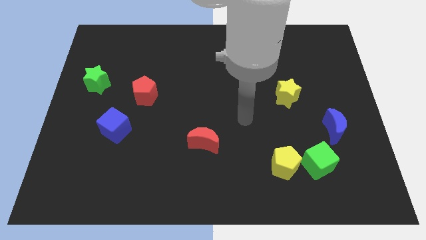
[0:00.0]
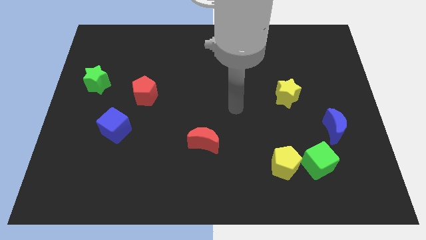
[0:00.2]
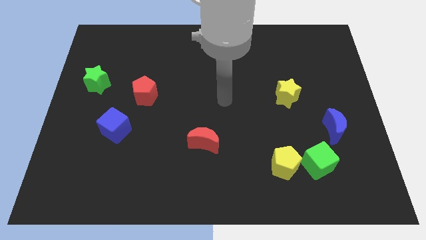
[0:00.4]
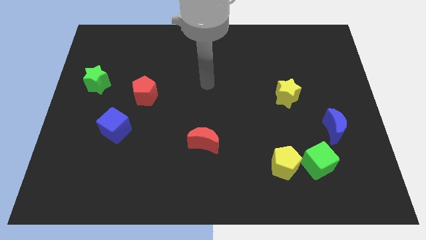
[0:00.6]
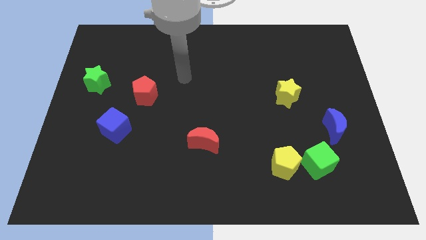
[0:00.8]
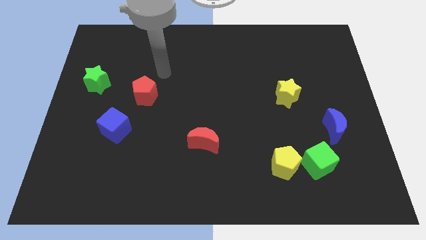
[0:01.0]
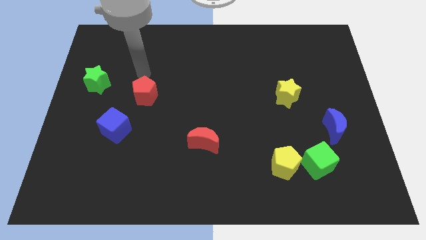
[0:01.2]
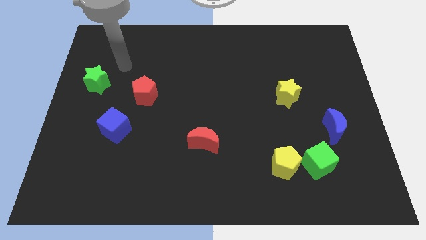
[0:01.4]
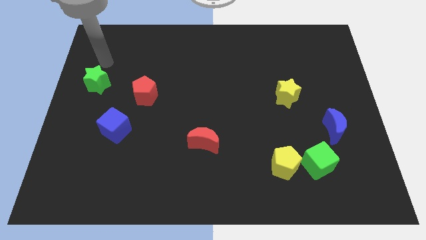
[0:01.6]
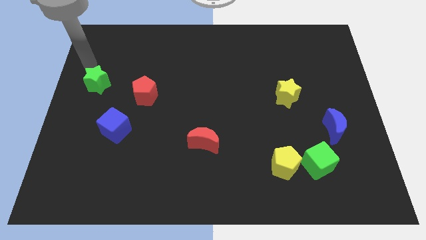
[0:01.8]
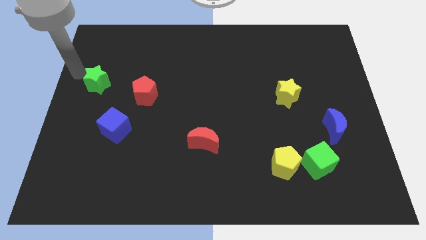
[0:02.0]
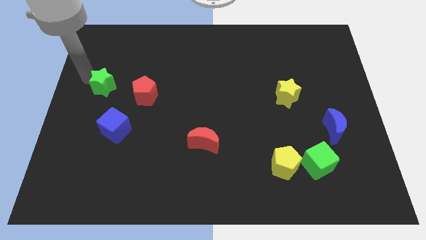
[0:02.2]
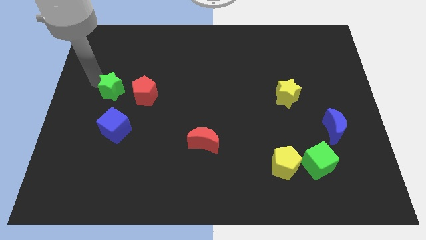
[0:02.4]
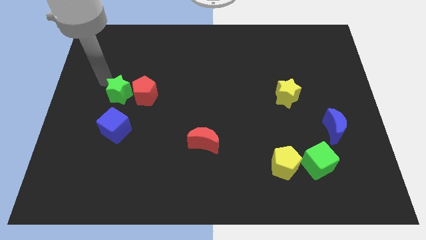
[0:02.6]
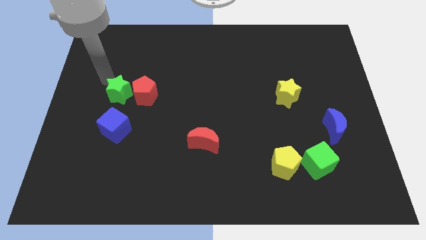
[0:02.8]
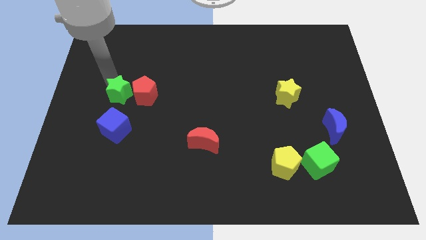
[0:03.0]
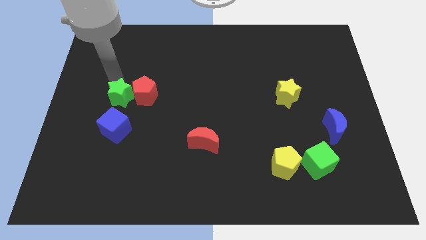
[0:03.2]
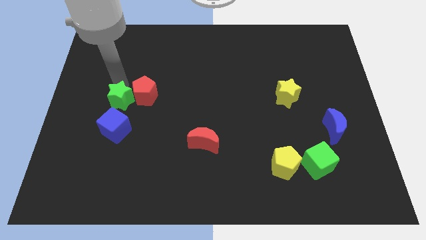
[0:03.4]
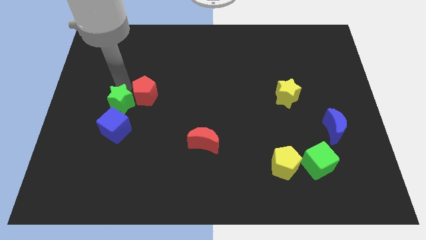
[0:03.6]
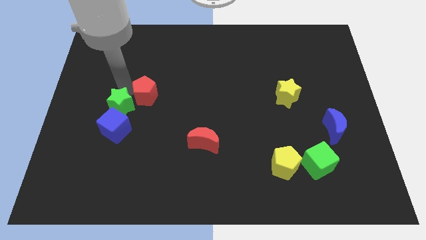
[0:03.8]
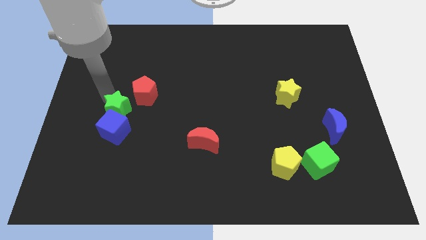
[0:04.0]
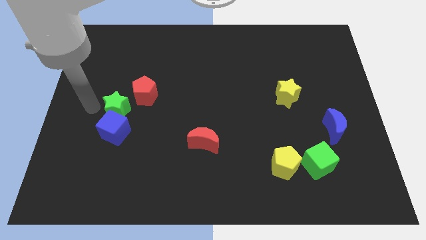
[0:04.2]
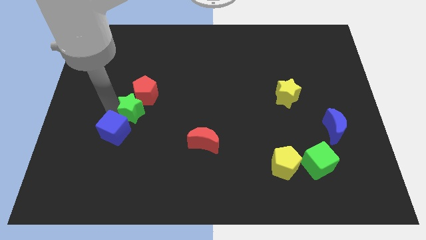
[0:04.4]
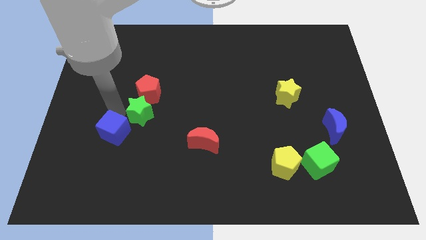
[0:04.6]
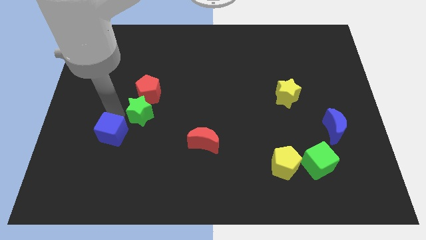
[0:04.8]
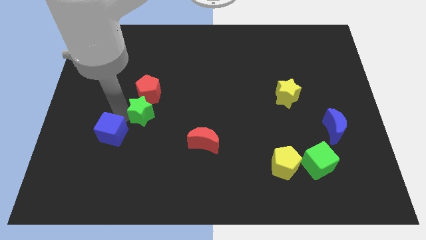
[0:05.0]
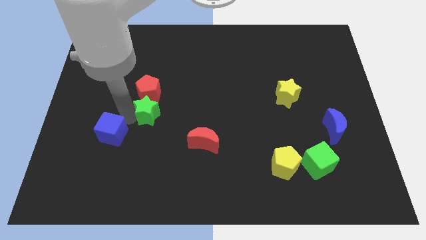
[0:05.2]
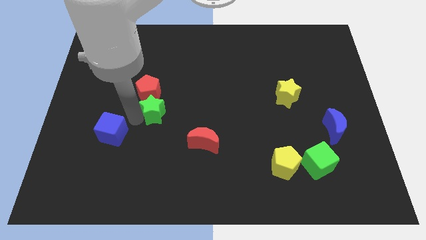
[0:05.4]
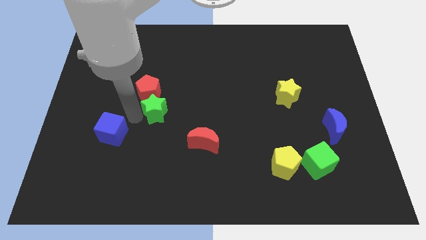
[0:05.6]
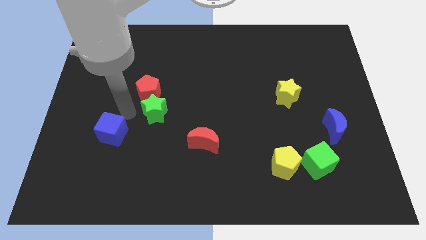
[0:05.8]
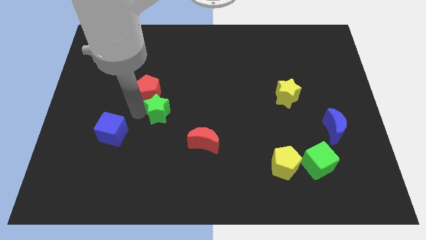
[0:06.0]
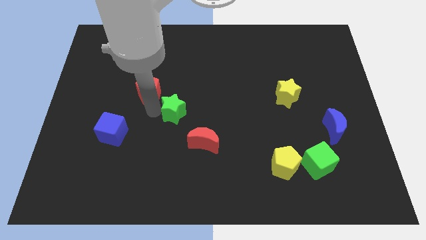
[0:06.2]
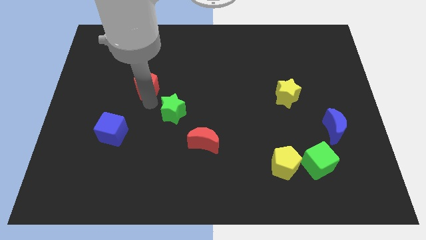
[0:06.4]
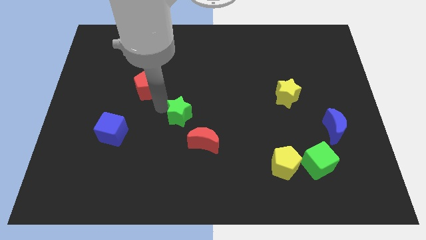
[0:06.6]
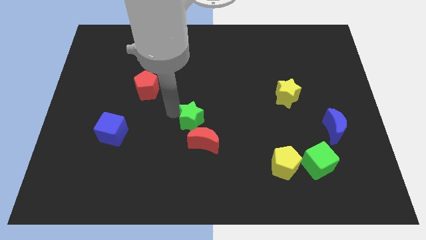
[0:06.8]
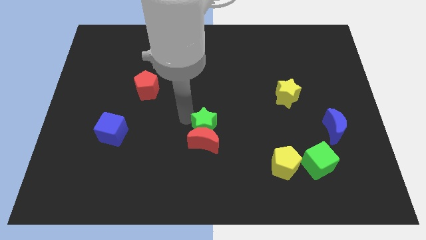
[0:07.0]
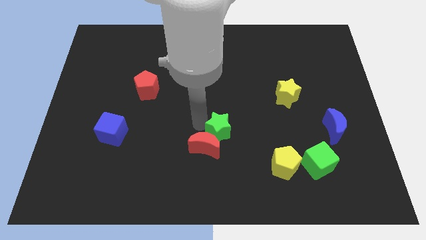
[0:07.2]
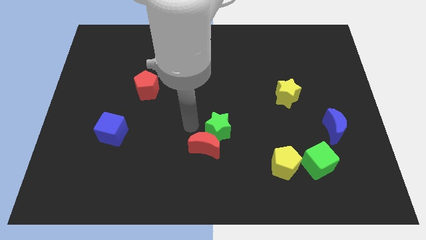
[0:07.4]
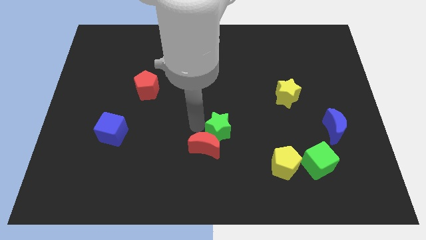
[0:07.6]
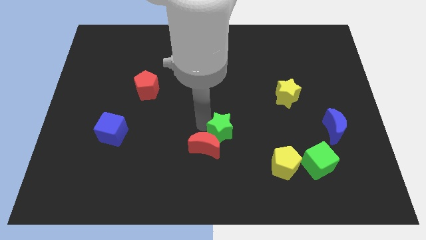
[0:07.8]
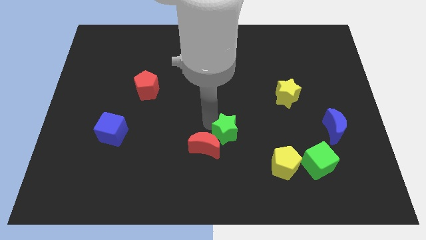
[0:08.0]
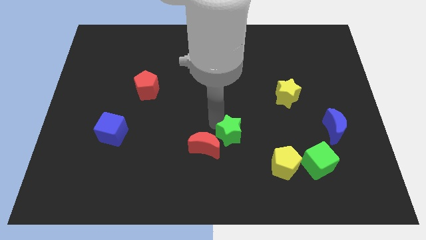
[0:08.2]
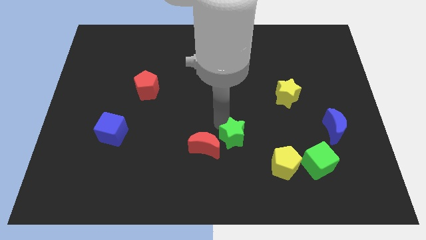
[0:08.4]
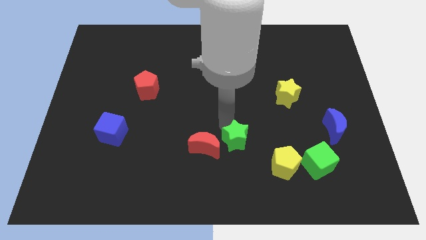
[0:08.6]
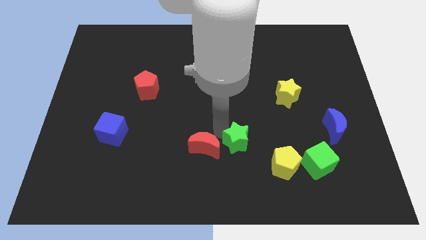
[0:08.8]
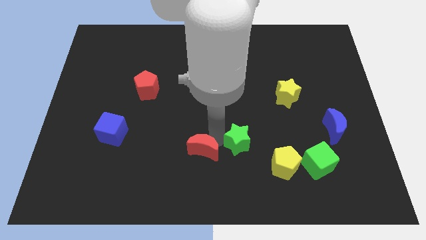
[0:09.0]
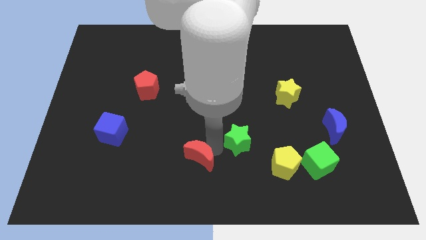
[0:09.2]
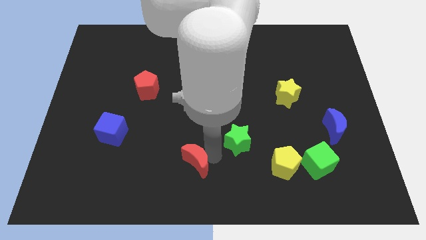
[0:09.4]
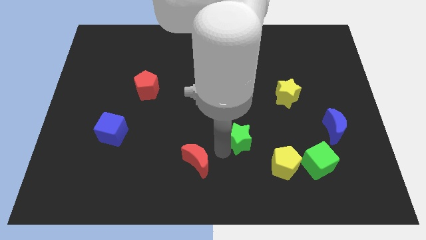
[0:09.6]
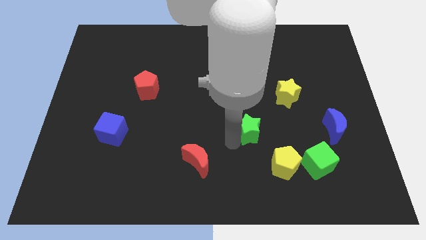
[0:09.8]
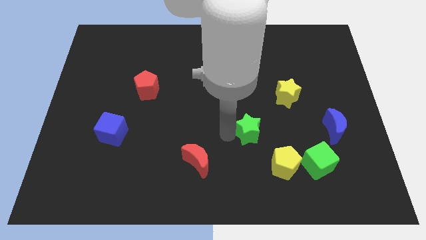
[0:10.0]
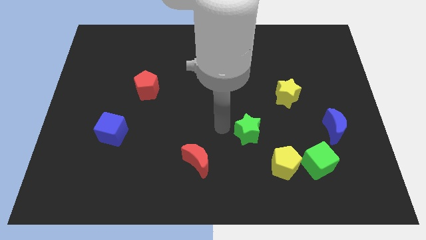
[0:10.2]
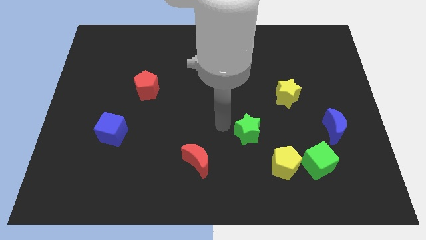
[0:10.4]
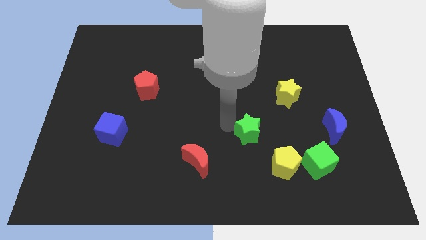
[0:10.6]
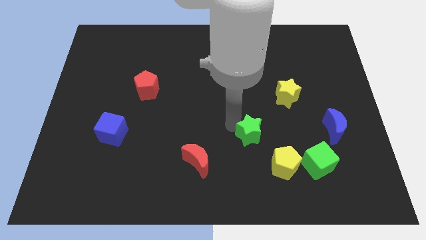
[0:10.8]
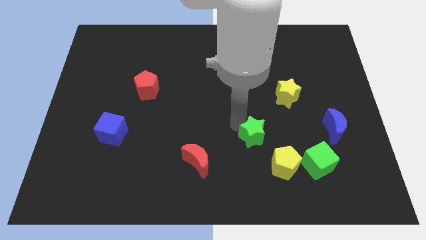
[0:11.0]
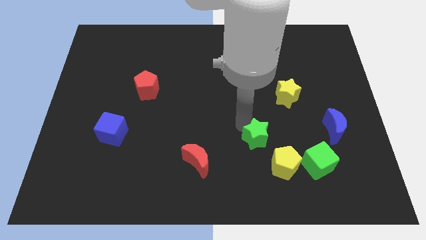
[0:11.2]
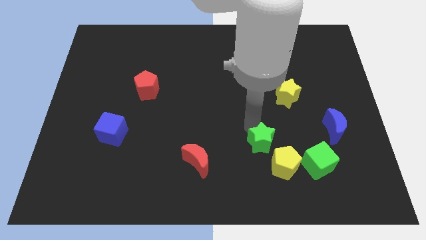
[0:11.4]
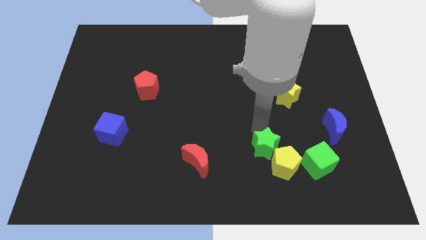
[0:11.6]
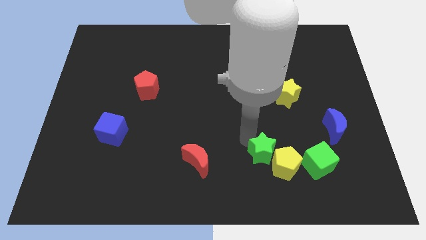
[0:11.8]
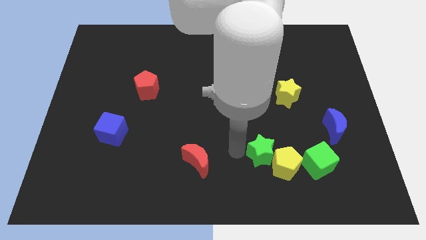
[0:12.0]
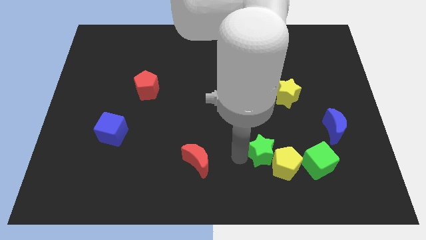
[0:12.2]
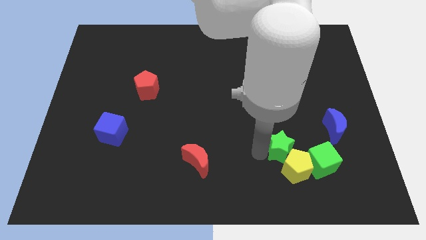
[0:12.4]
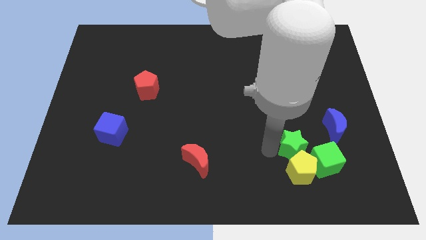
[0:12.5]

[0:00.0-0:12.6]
push the green star to the top right of the yellow pentagon

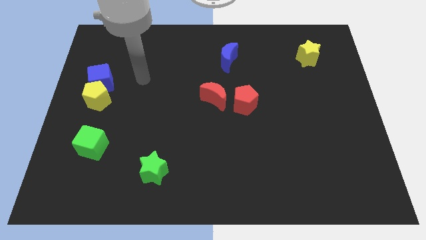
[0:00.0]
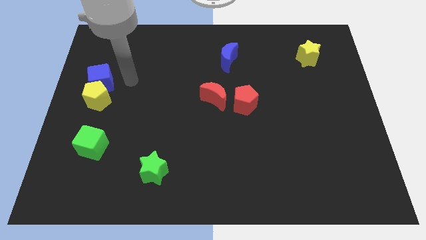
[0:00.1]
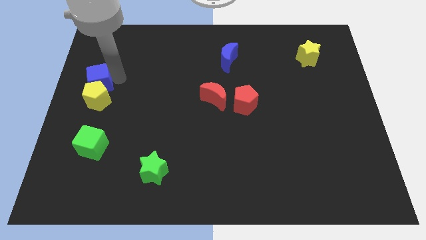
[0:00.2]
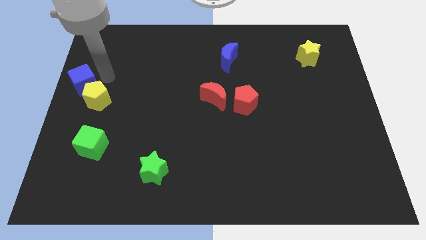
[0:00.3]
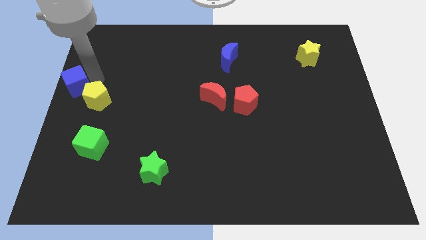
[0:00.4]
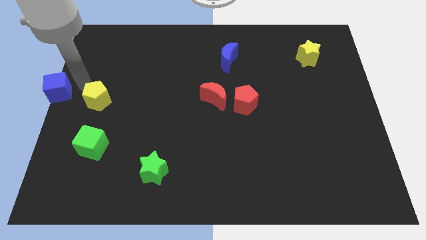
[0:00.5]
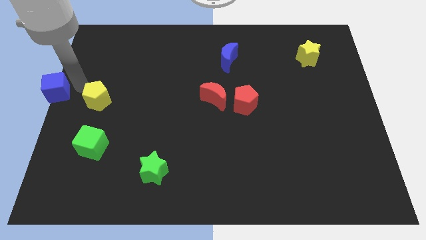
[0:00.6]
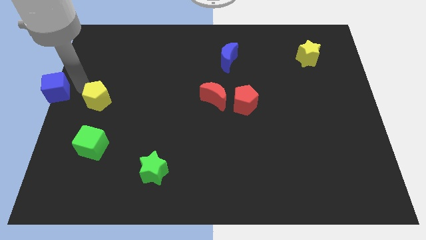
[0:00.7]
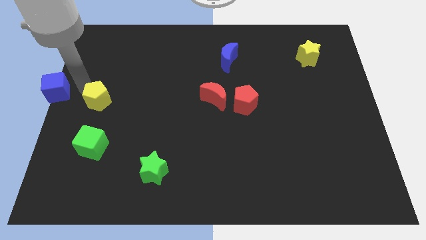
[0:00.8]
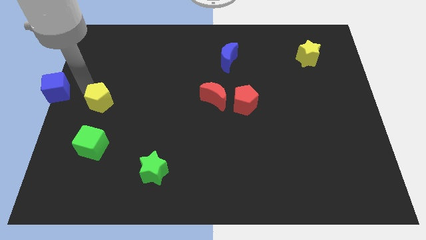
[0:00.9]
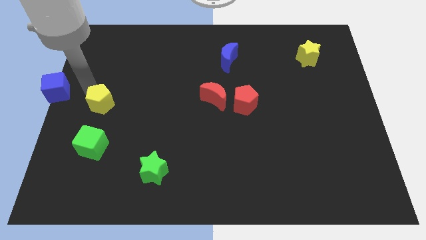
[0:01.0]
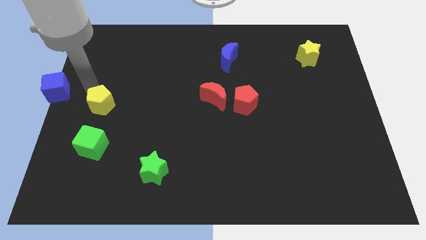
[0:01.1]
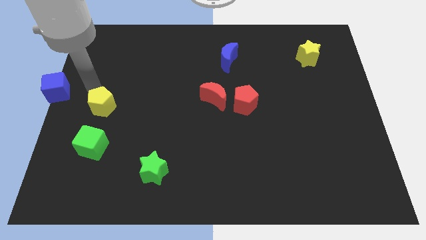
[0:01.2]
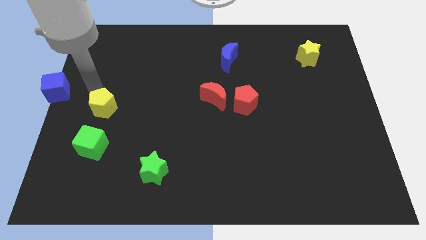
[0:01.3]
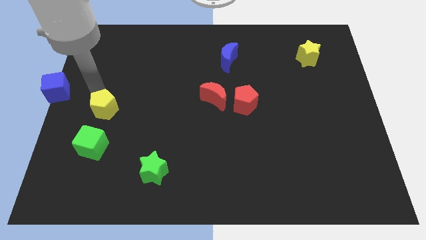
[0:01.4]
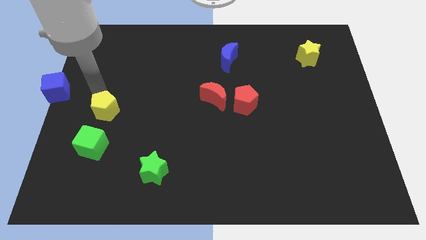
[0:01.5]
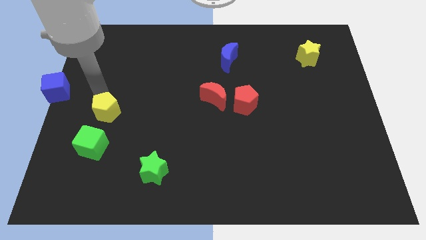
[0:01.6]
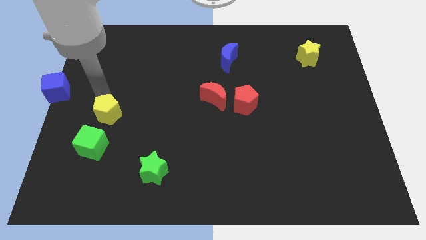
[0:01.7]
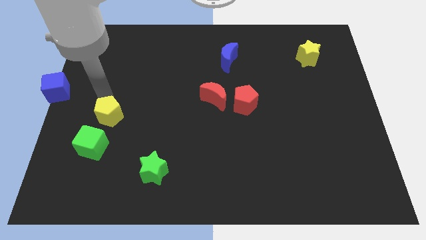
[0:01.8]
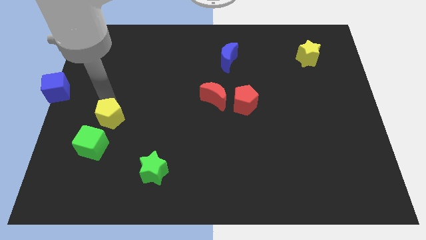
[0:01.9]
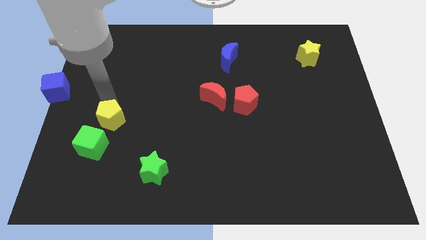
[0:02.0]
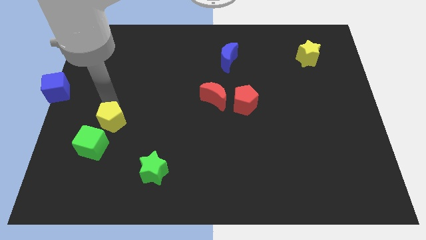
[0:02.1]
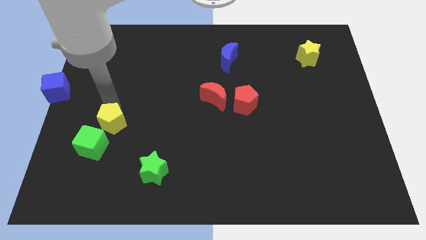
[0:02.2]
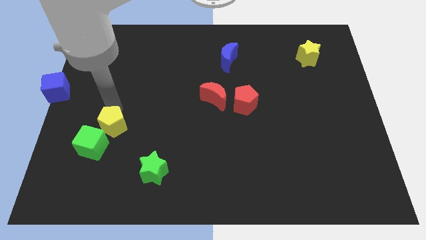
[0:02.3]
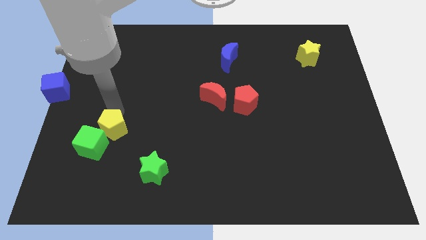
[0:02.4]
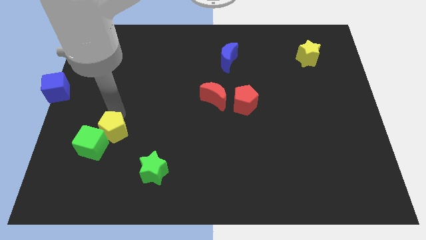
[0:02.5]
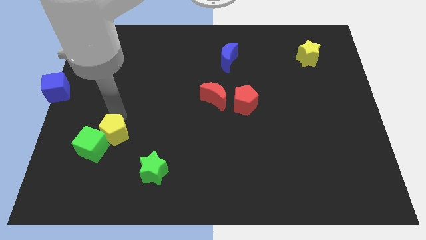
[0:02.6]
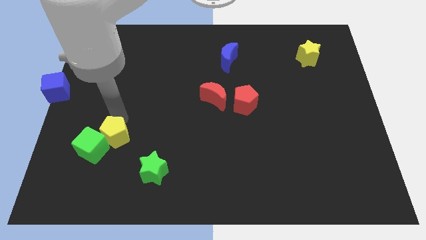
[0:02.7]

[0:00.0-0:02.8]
move the yellow pentagon diagonally up and to the left of the green star
